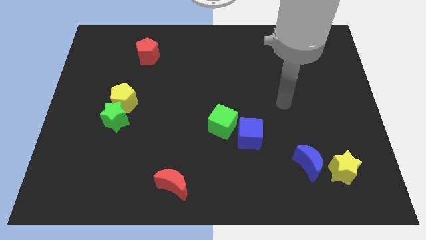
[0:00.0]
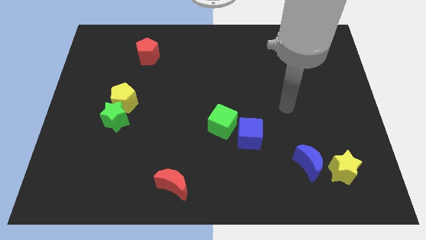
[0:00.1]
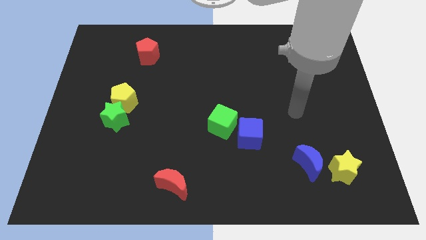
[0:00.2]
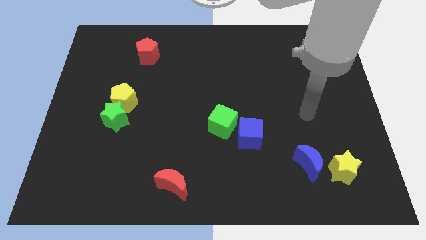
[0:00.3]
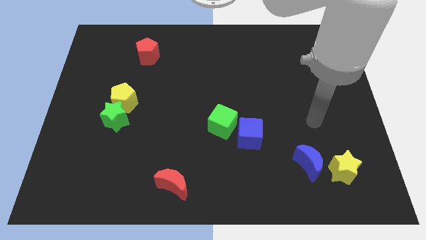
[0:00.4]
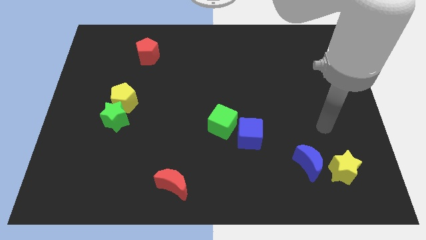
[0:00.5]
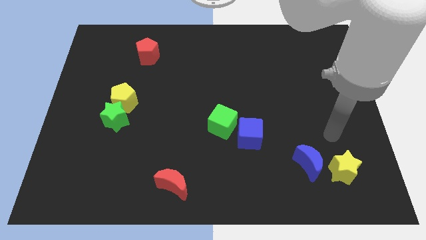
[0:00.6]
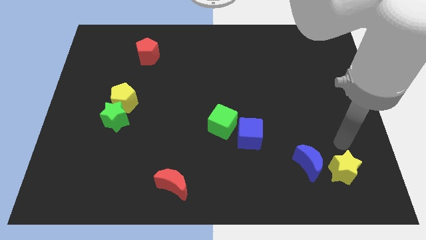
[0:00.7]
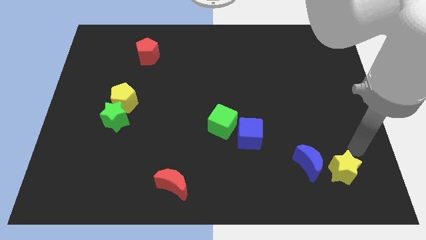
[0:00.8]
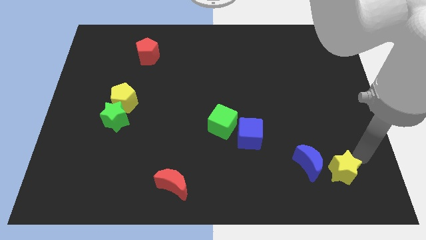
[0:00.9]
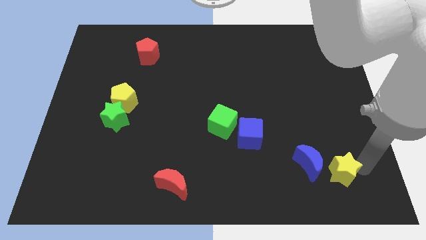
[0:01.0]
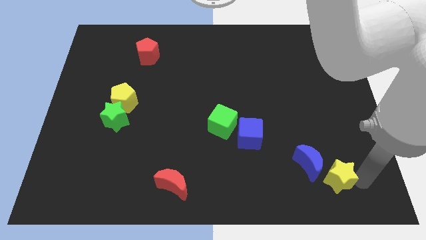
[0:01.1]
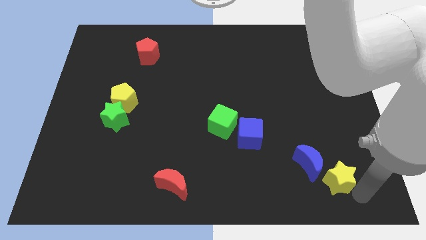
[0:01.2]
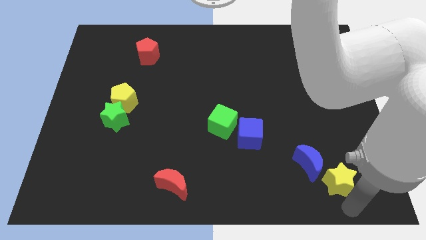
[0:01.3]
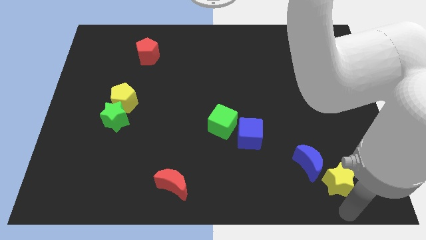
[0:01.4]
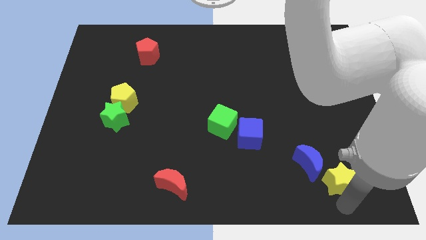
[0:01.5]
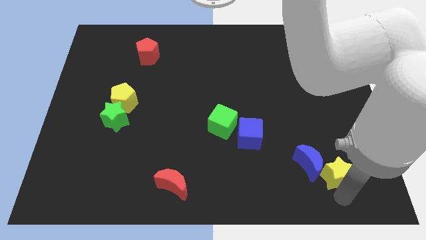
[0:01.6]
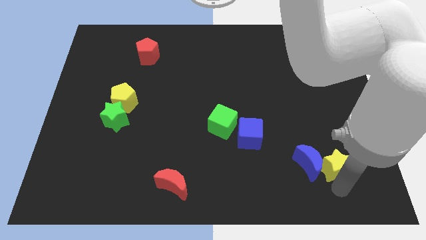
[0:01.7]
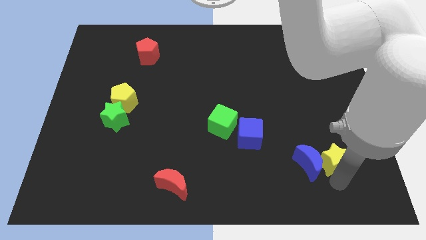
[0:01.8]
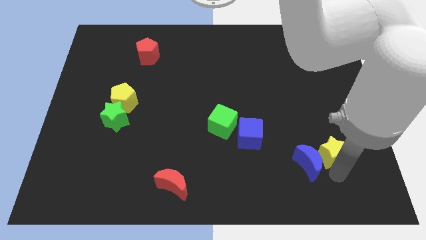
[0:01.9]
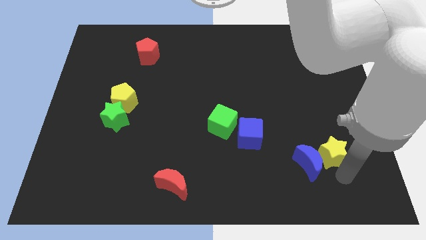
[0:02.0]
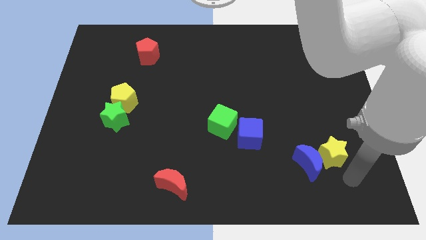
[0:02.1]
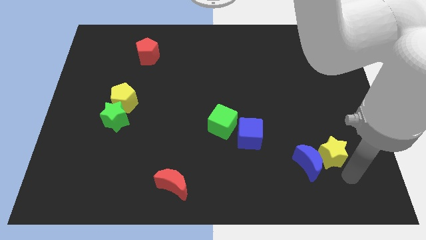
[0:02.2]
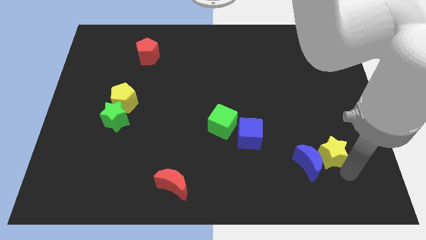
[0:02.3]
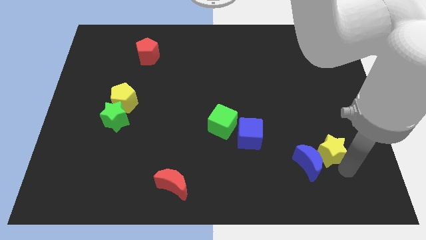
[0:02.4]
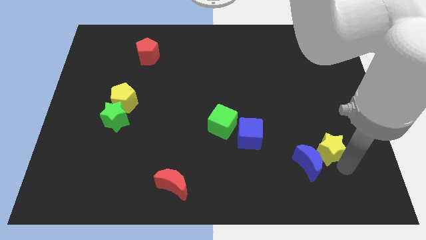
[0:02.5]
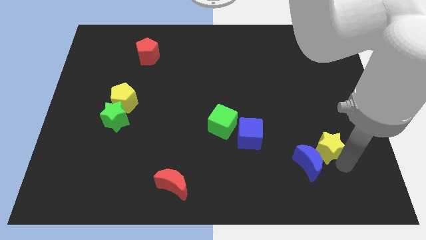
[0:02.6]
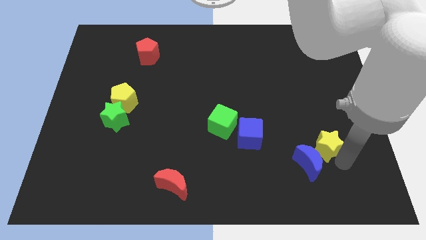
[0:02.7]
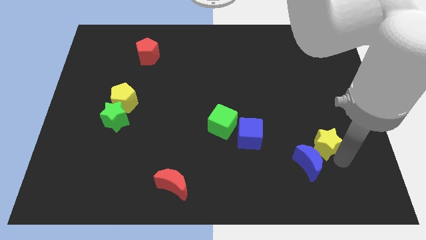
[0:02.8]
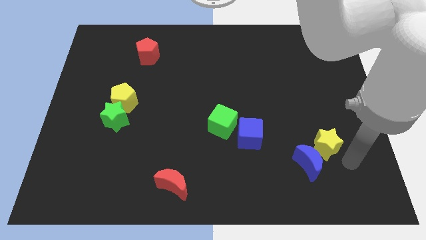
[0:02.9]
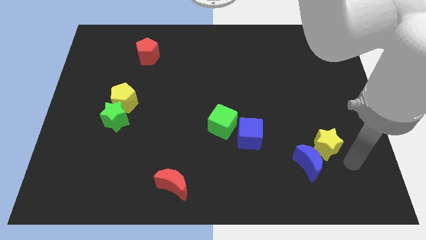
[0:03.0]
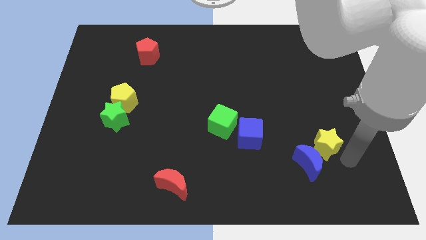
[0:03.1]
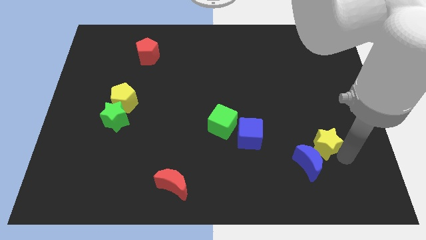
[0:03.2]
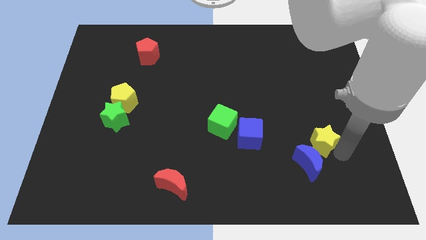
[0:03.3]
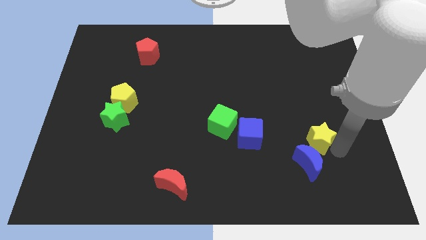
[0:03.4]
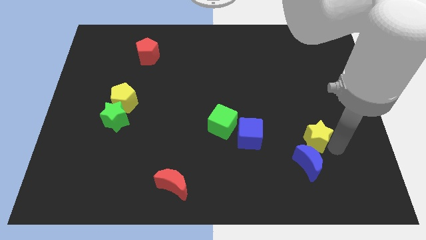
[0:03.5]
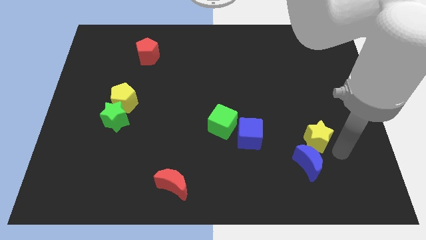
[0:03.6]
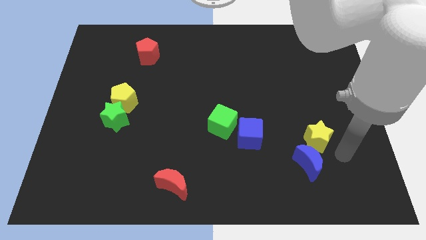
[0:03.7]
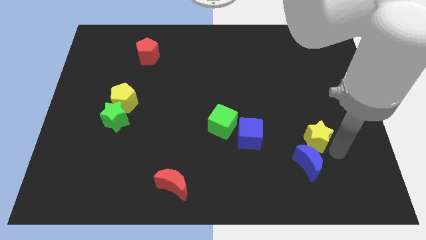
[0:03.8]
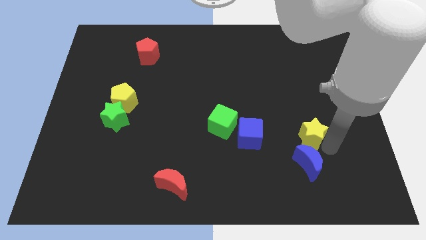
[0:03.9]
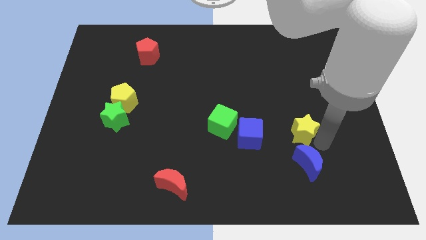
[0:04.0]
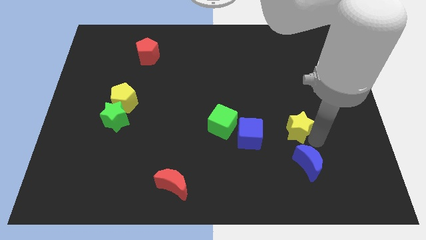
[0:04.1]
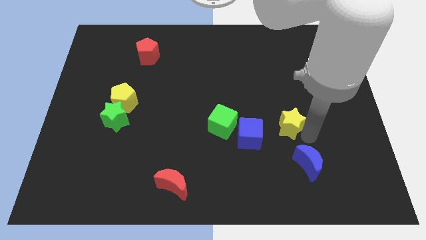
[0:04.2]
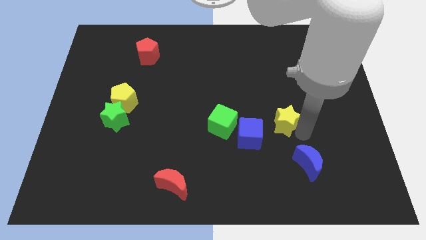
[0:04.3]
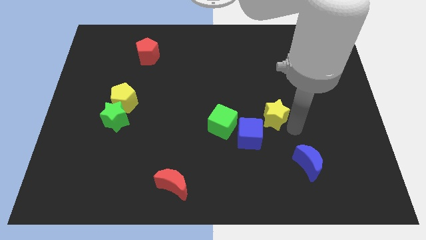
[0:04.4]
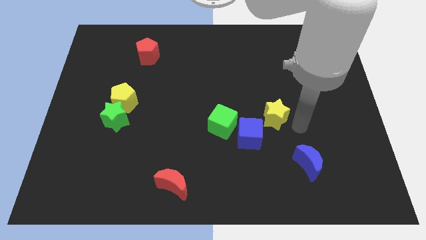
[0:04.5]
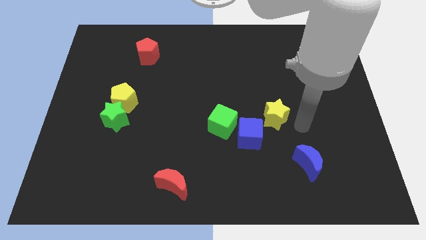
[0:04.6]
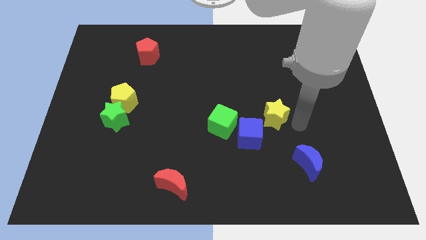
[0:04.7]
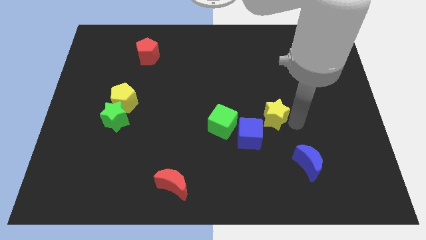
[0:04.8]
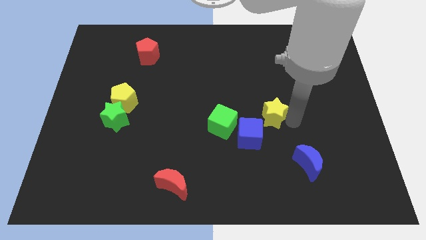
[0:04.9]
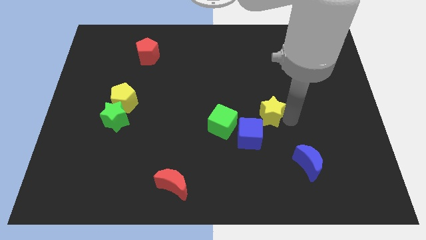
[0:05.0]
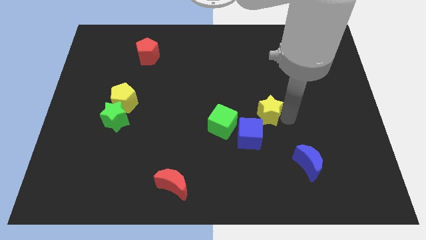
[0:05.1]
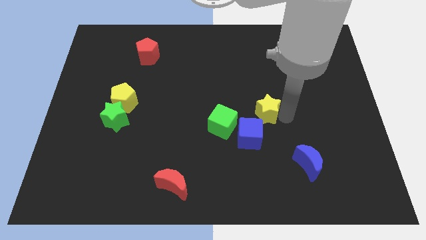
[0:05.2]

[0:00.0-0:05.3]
put the yellow star to the center of the board

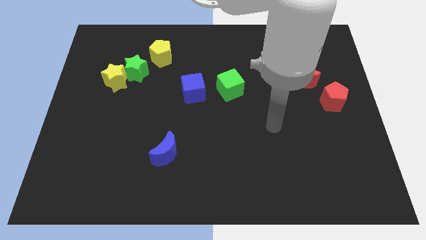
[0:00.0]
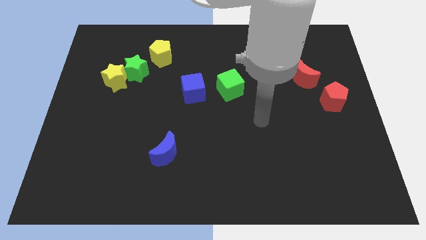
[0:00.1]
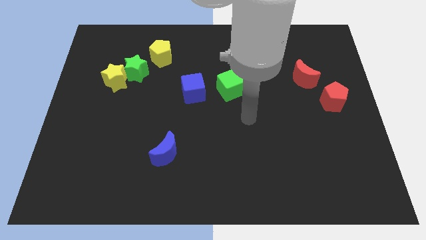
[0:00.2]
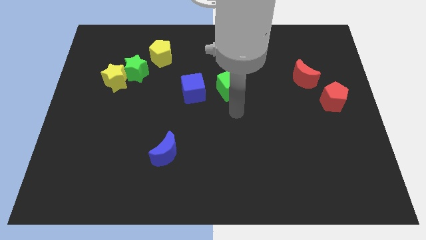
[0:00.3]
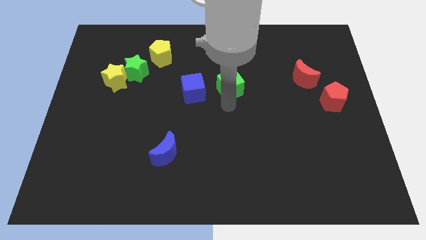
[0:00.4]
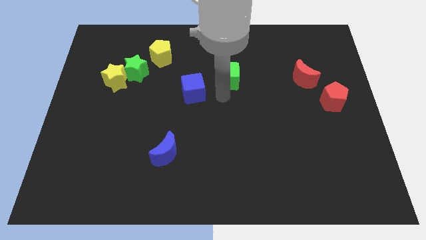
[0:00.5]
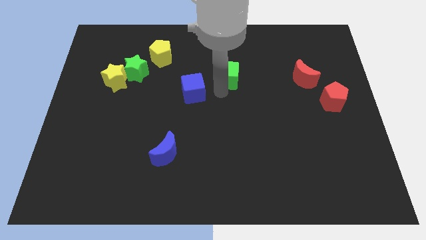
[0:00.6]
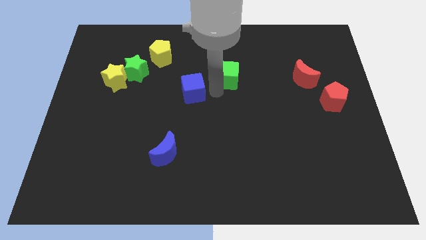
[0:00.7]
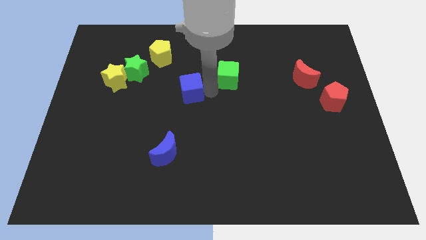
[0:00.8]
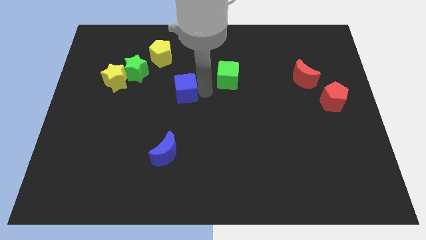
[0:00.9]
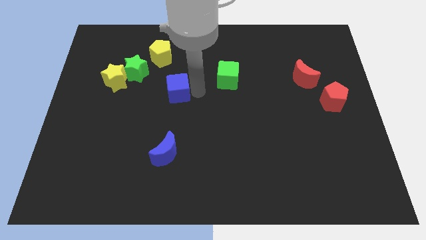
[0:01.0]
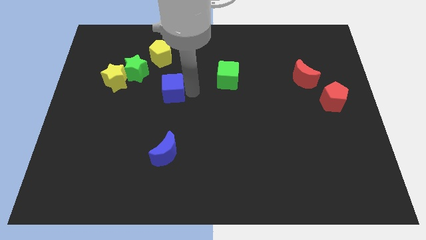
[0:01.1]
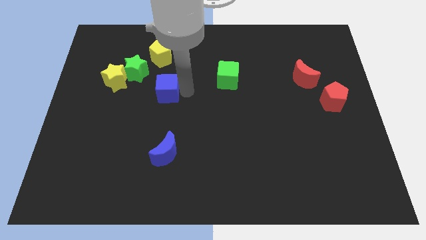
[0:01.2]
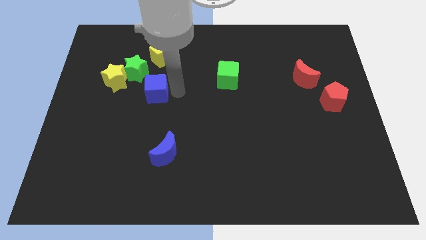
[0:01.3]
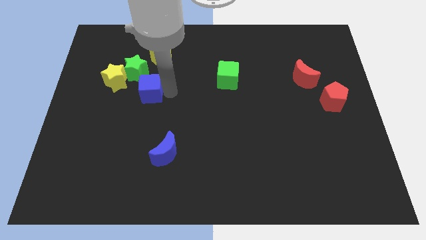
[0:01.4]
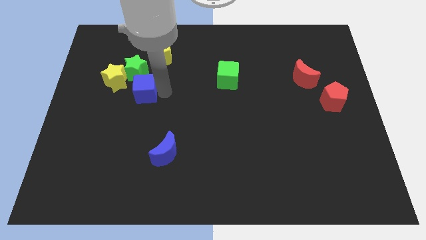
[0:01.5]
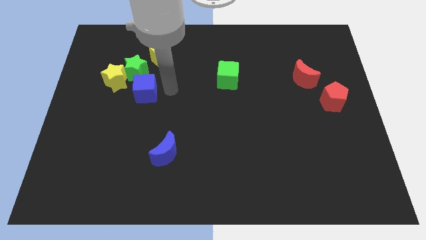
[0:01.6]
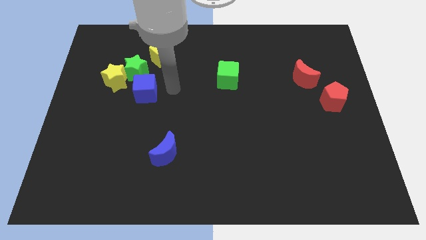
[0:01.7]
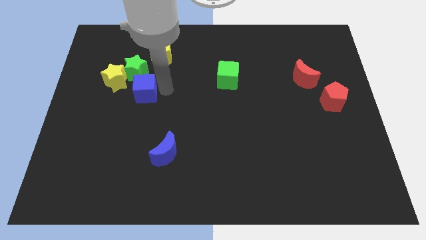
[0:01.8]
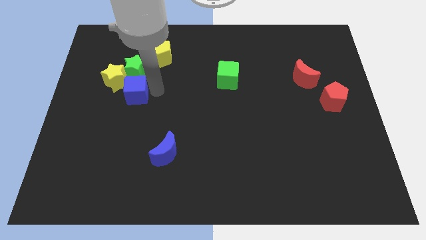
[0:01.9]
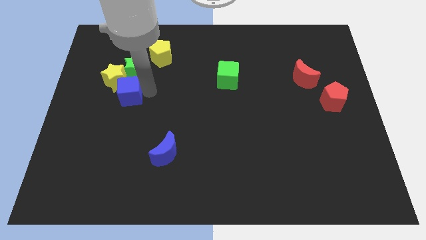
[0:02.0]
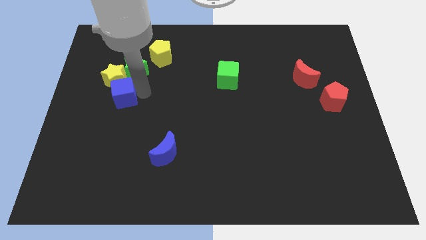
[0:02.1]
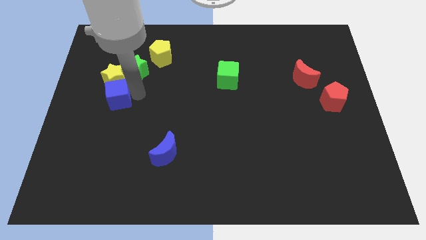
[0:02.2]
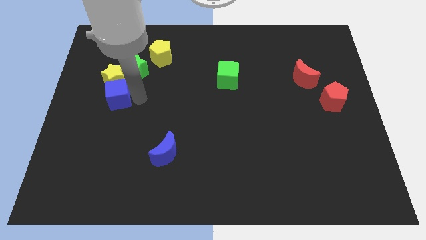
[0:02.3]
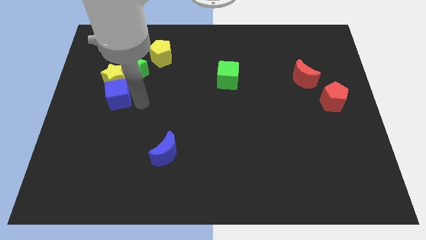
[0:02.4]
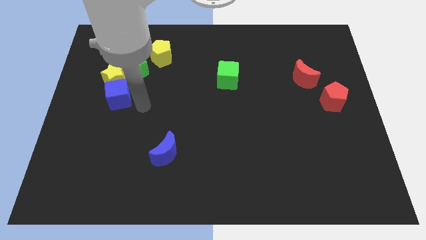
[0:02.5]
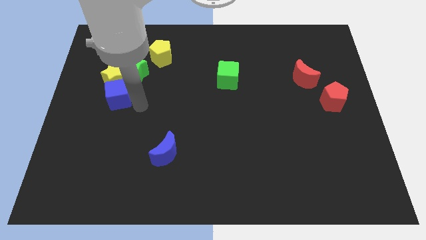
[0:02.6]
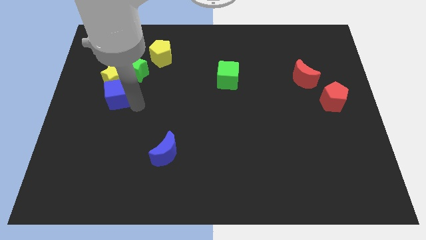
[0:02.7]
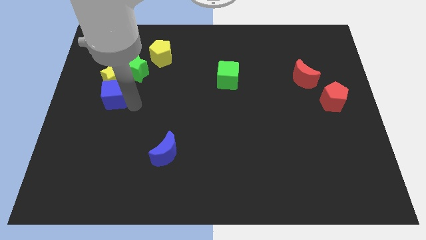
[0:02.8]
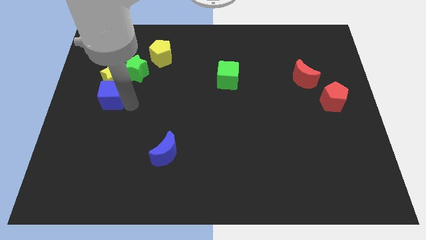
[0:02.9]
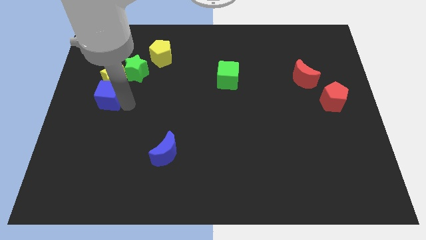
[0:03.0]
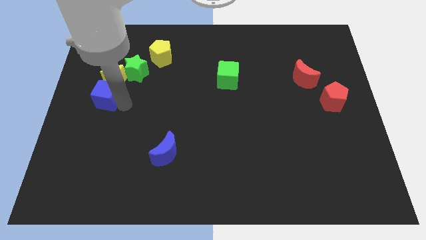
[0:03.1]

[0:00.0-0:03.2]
slide the blue cube to the center left
